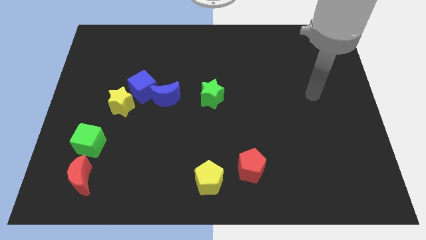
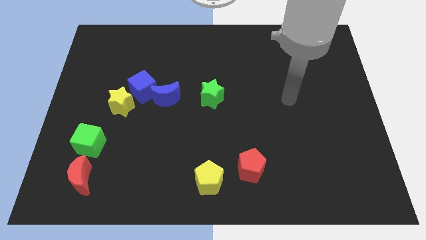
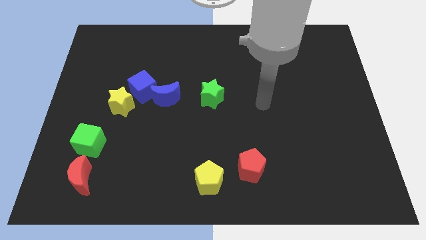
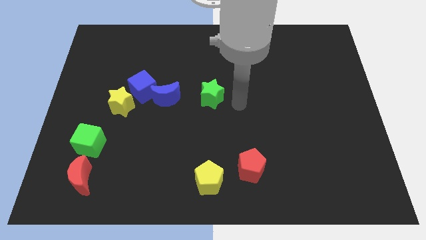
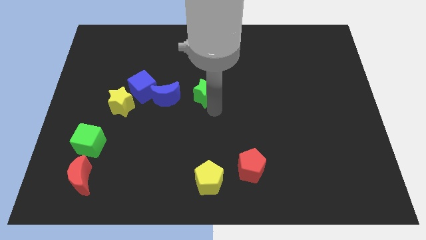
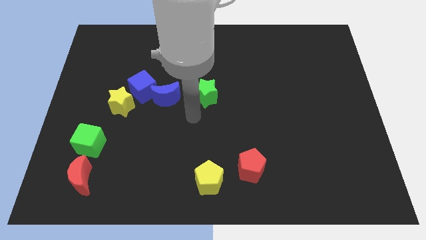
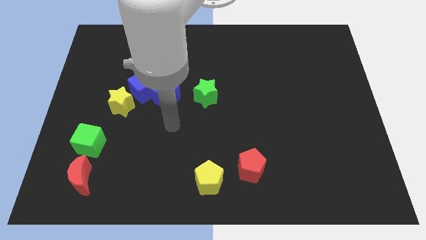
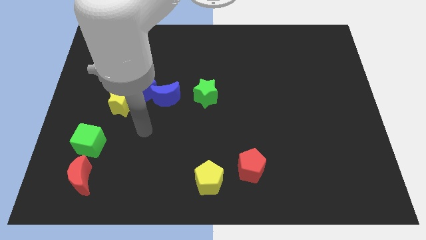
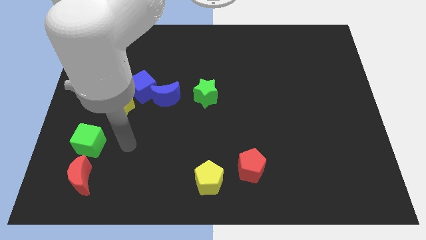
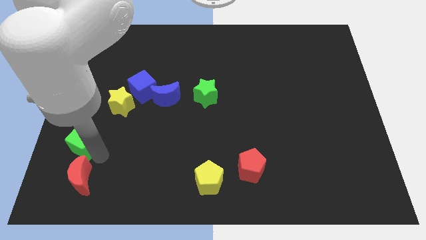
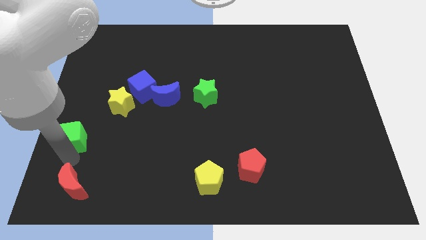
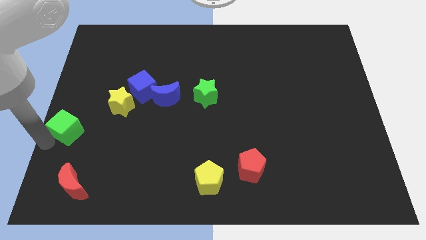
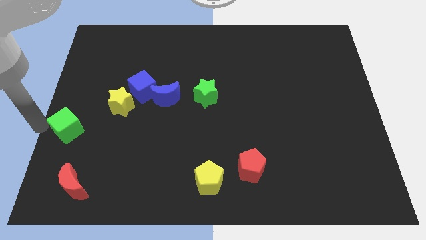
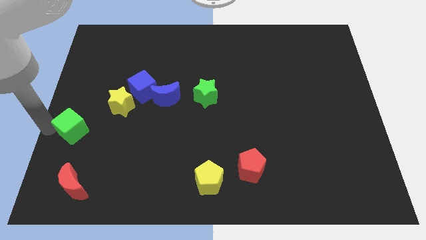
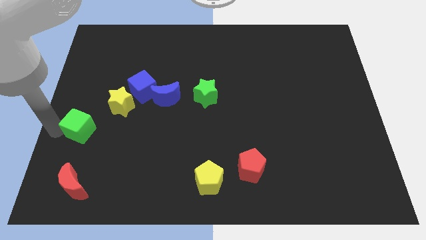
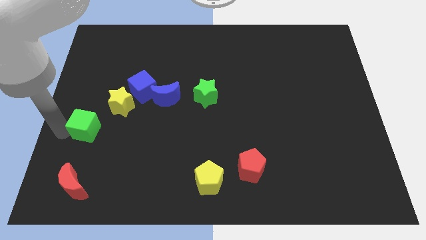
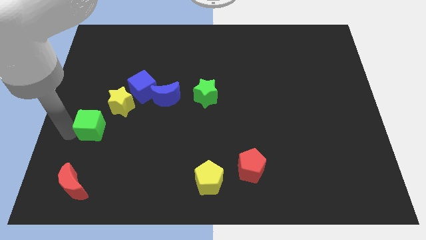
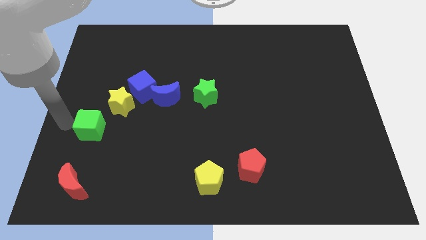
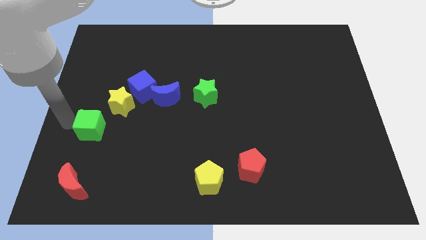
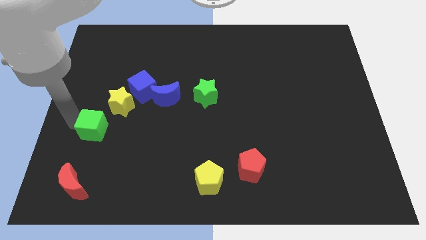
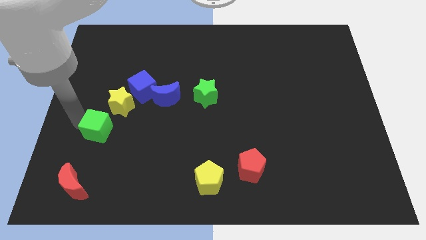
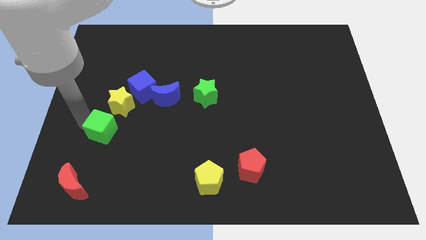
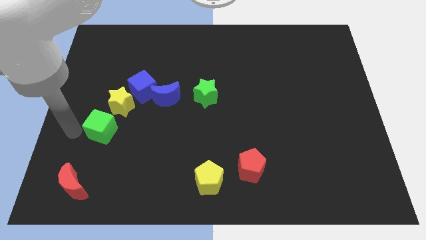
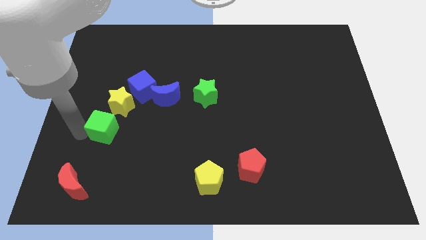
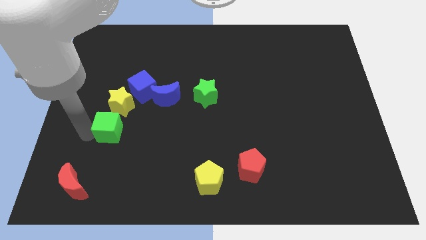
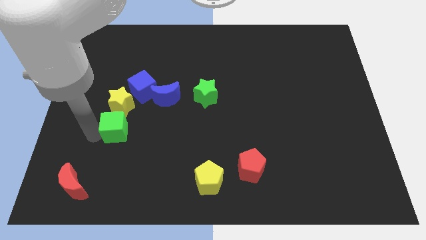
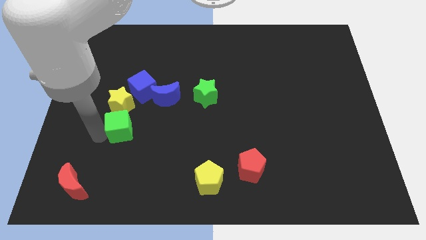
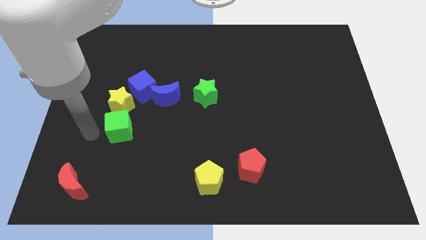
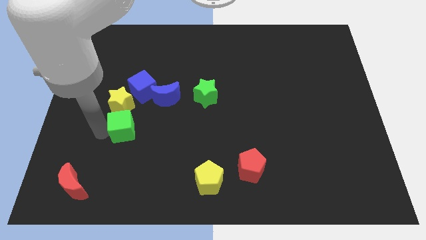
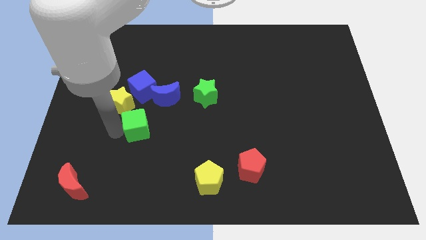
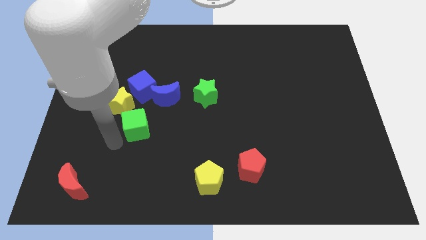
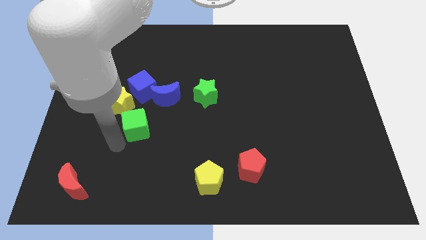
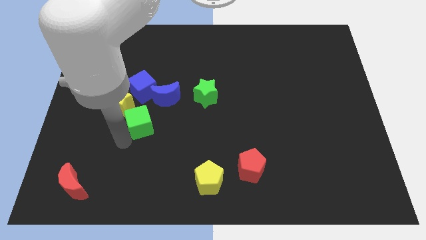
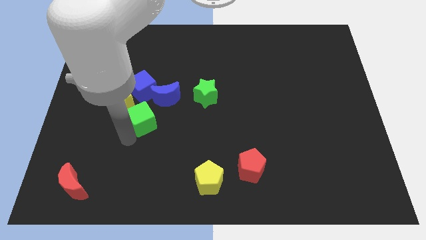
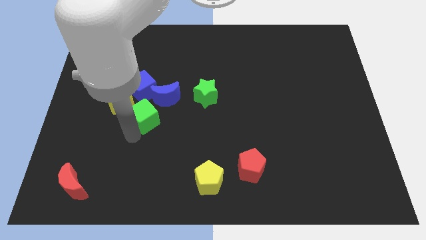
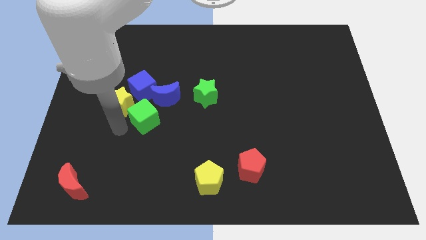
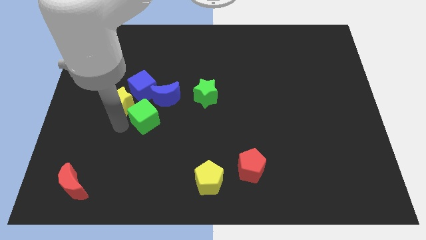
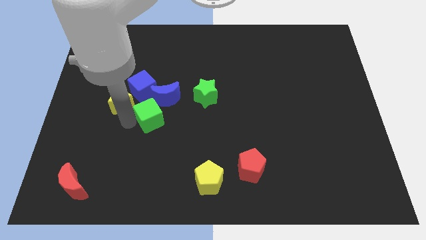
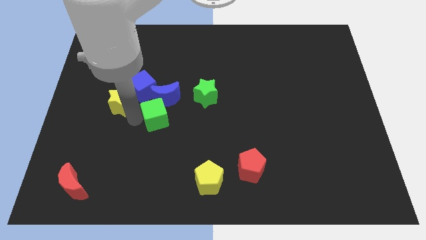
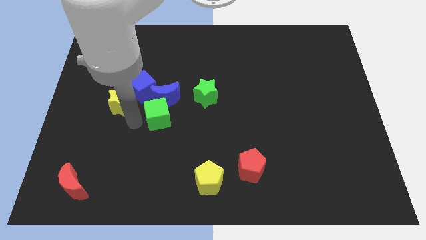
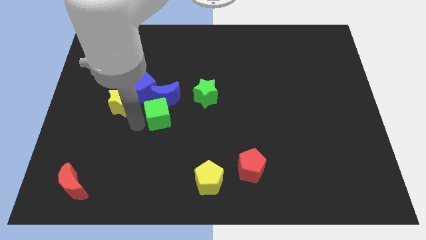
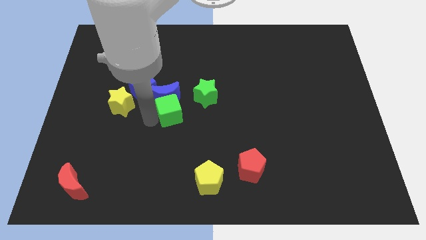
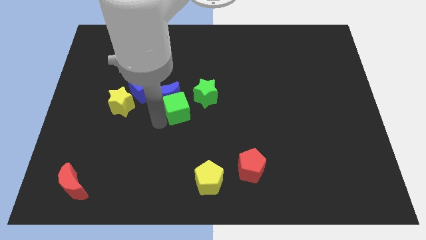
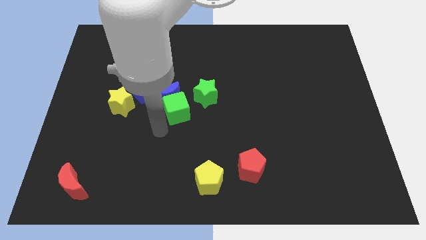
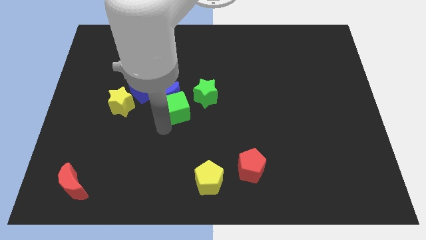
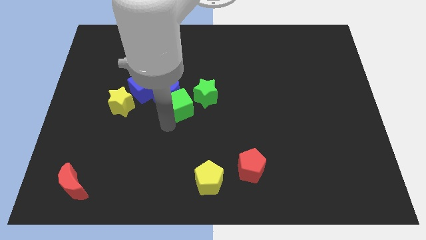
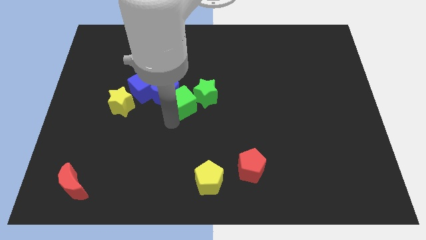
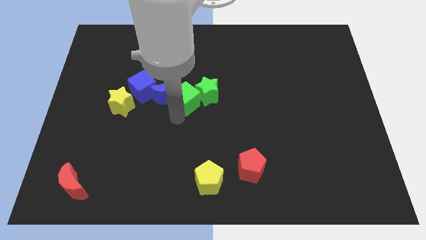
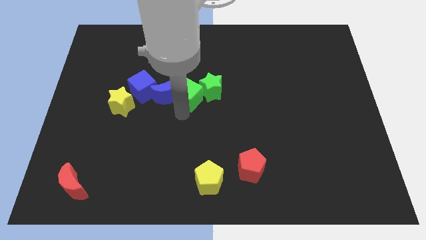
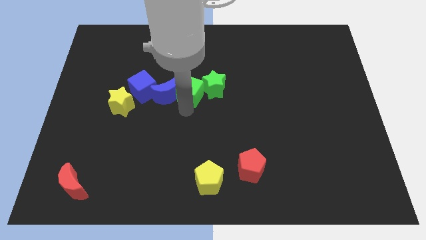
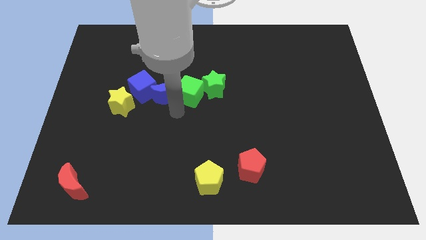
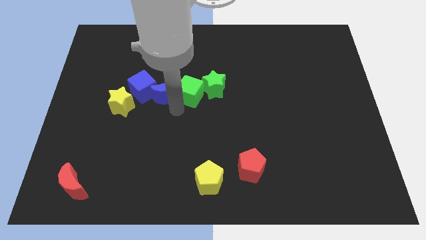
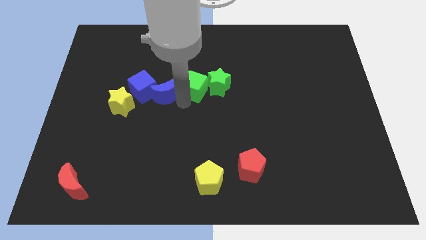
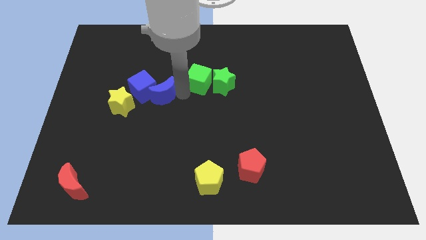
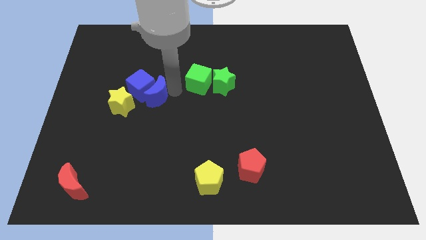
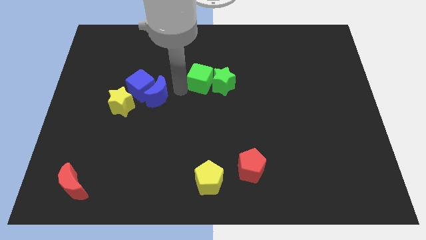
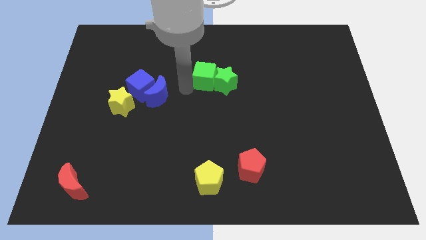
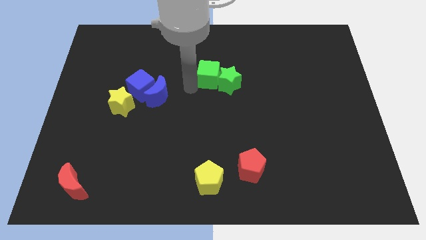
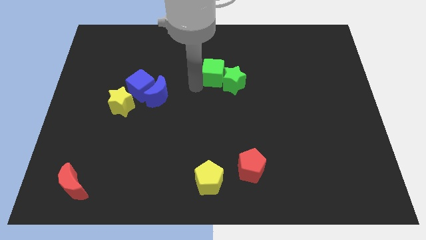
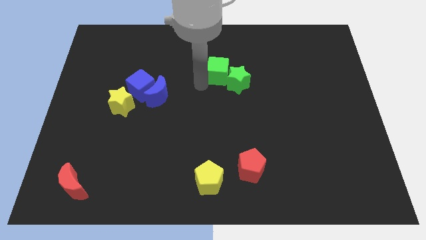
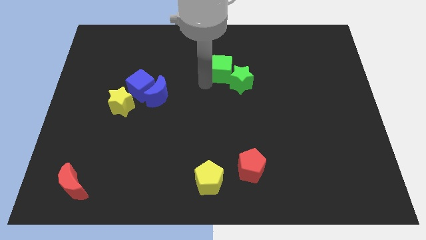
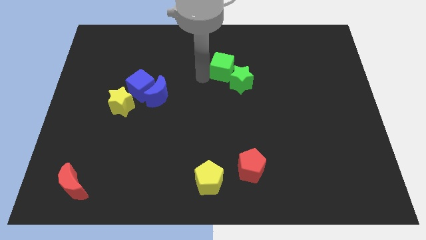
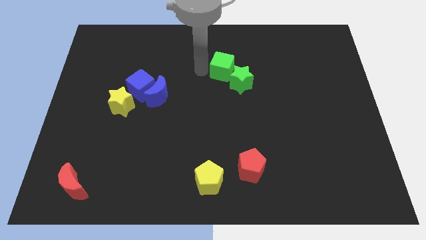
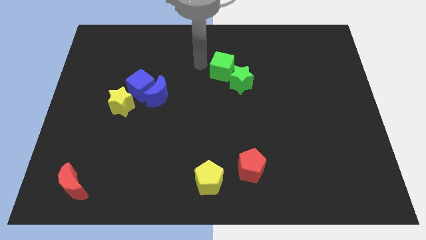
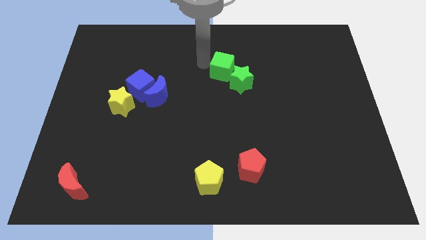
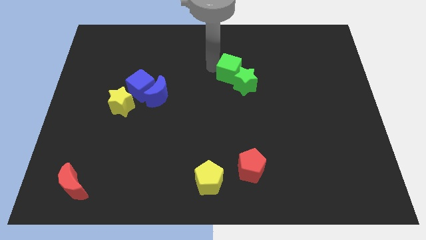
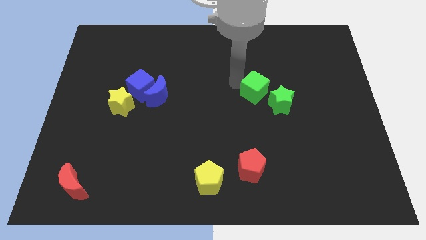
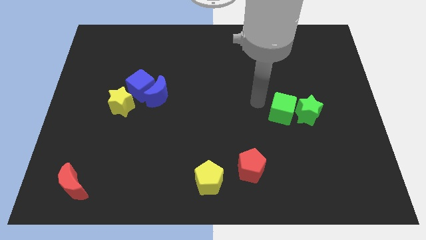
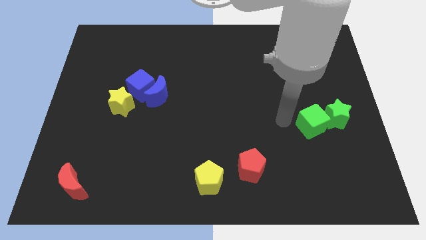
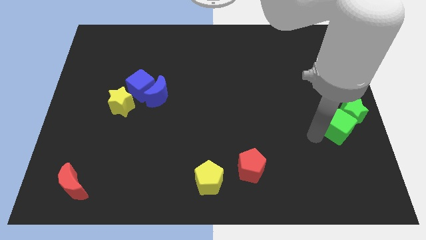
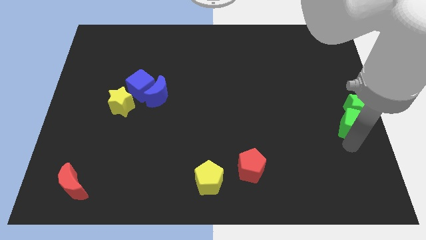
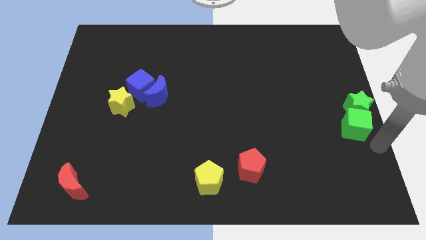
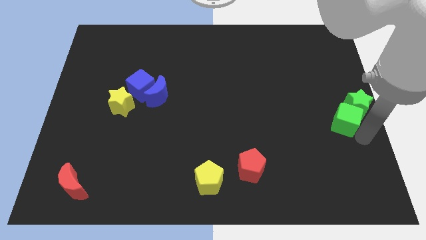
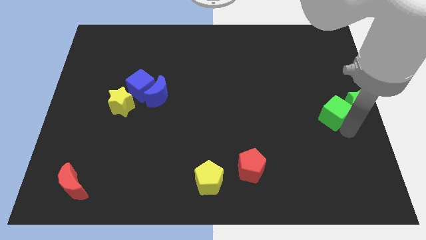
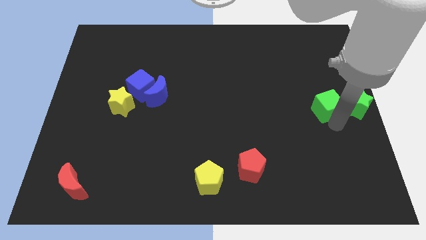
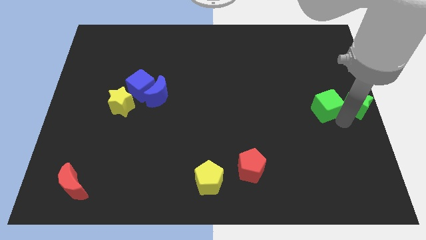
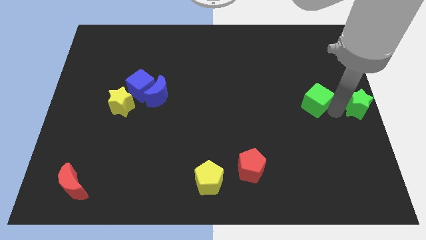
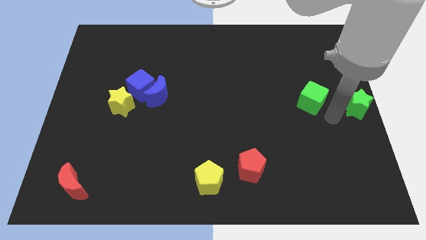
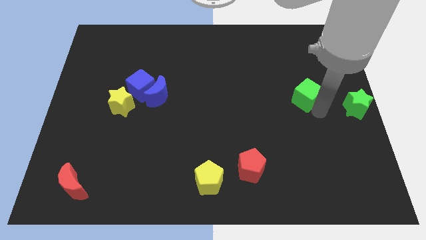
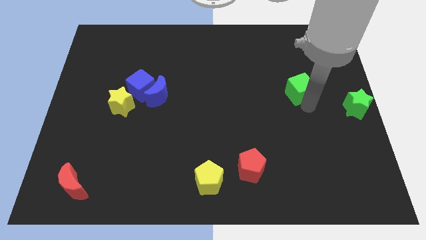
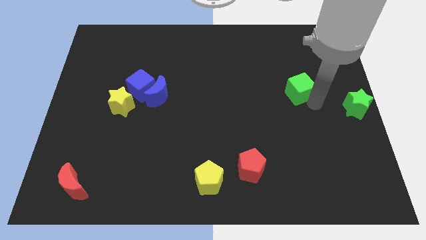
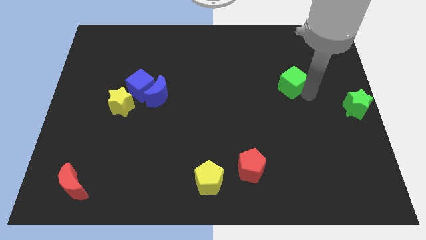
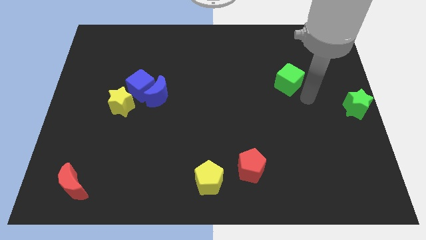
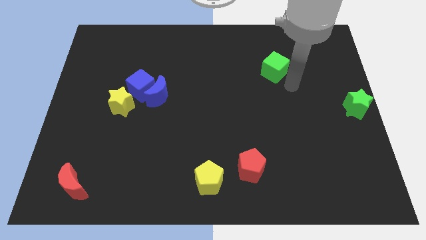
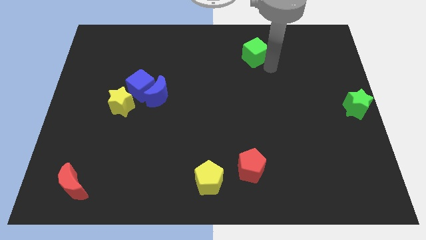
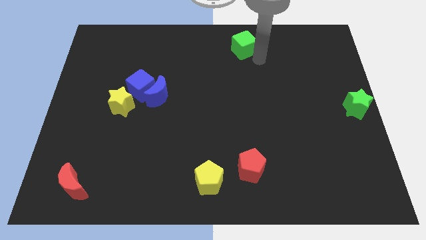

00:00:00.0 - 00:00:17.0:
slide the green cube to the top
